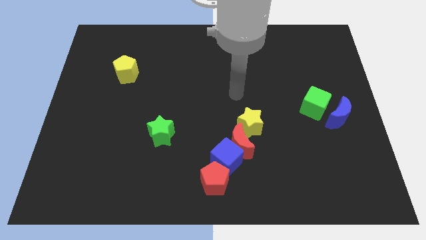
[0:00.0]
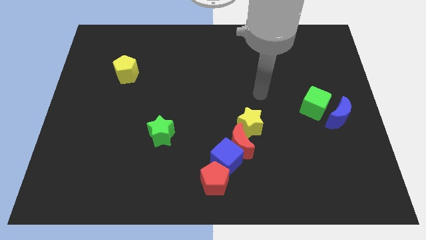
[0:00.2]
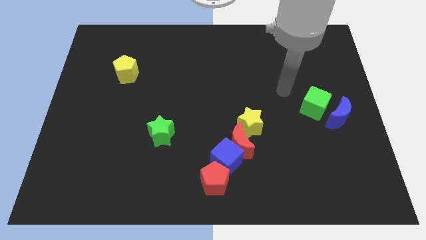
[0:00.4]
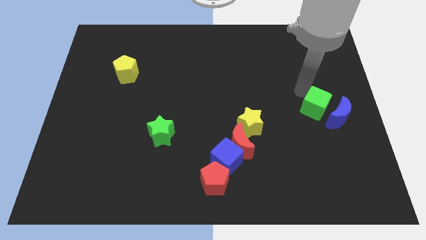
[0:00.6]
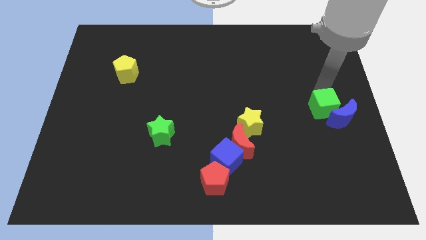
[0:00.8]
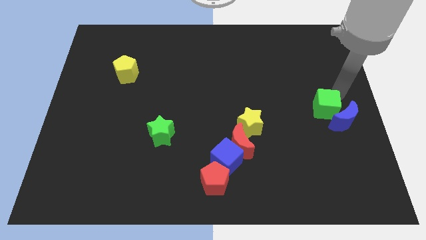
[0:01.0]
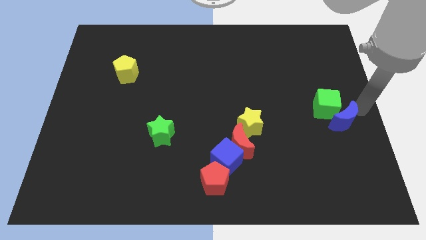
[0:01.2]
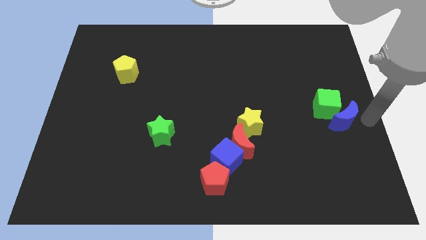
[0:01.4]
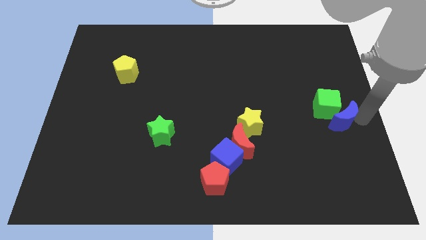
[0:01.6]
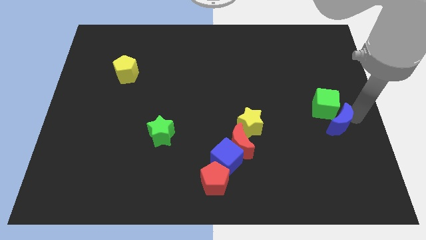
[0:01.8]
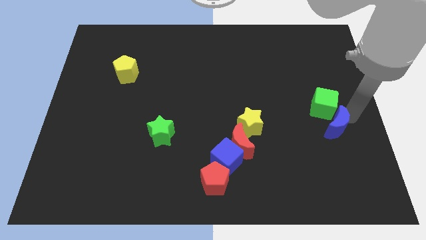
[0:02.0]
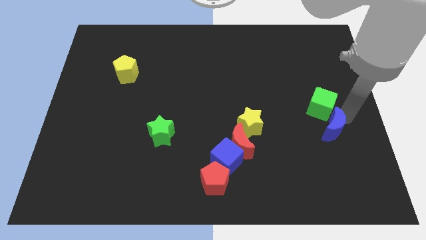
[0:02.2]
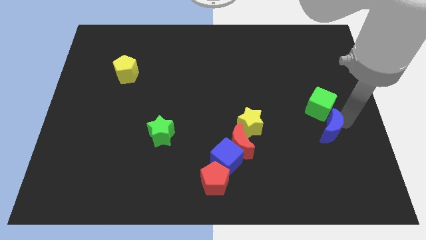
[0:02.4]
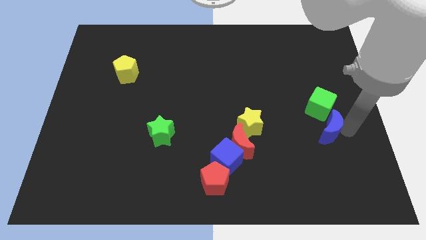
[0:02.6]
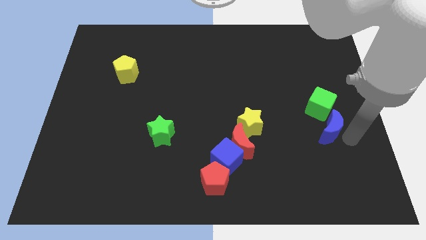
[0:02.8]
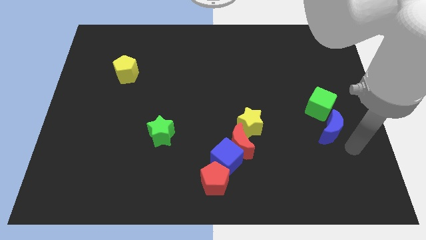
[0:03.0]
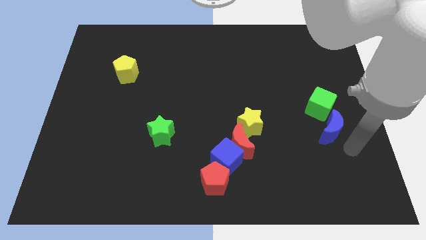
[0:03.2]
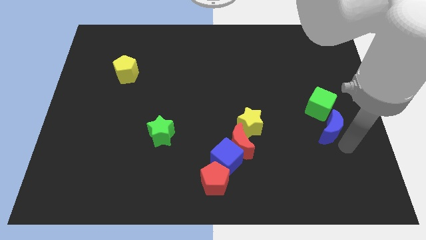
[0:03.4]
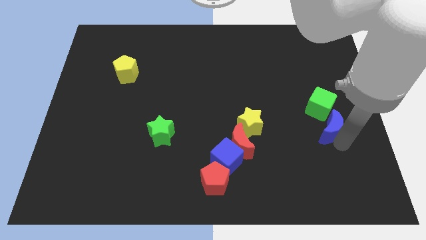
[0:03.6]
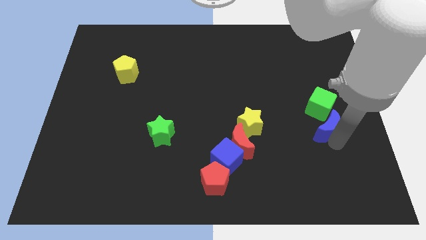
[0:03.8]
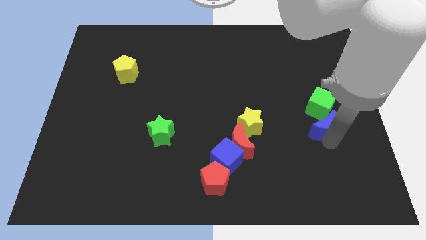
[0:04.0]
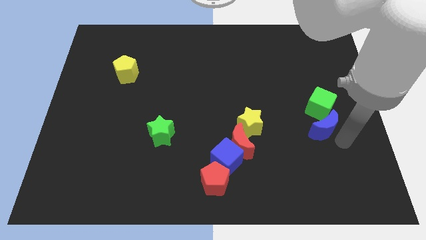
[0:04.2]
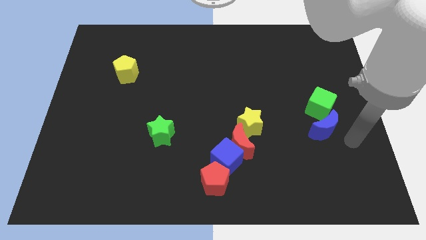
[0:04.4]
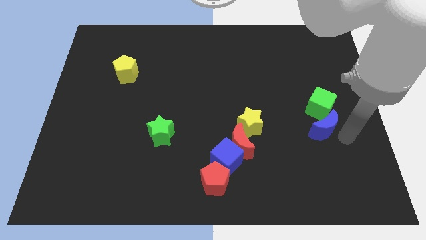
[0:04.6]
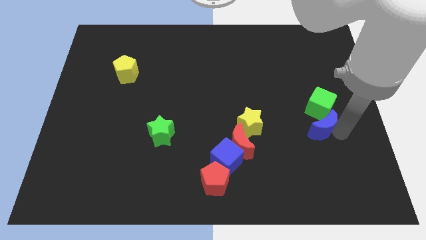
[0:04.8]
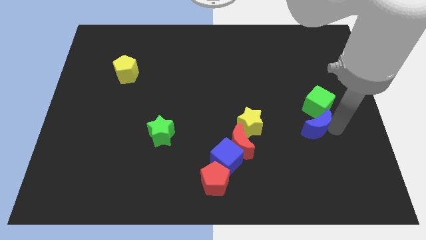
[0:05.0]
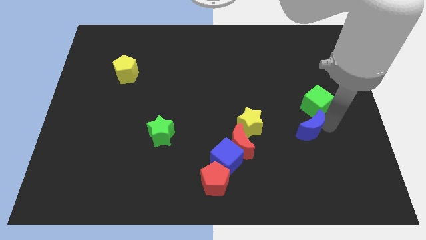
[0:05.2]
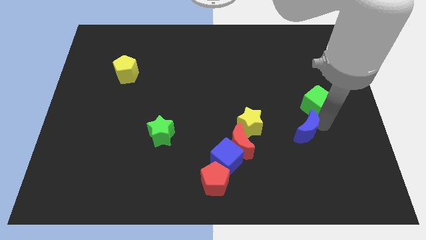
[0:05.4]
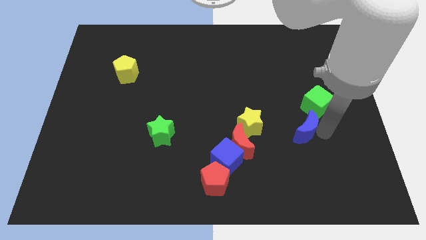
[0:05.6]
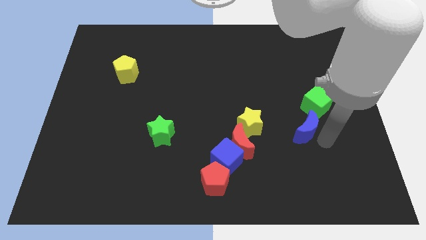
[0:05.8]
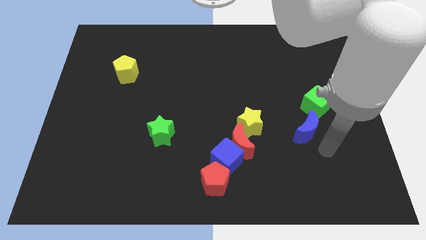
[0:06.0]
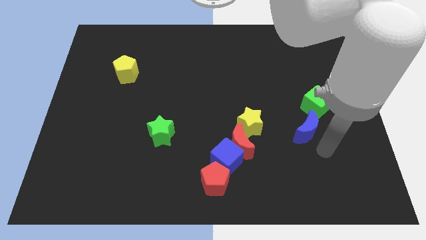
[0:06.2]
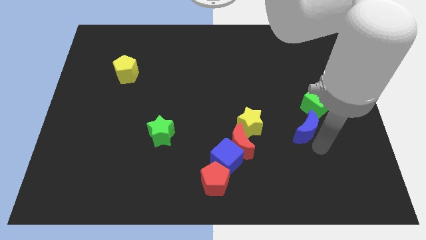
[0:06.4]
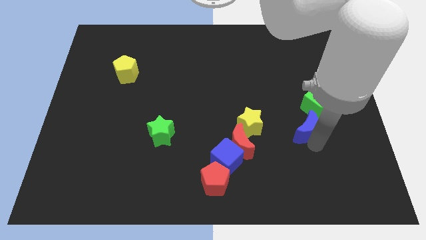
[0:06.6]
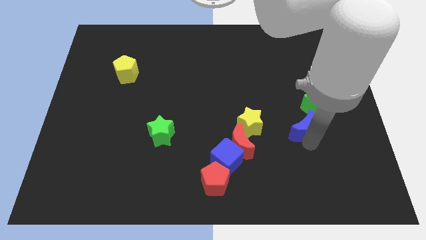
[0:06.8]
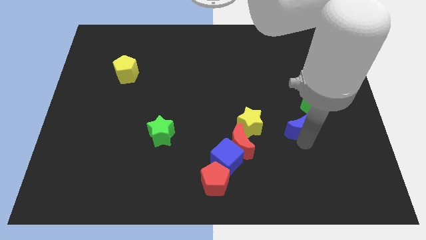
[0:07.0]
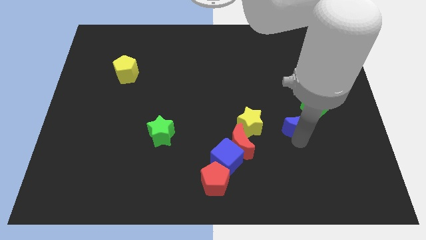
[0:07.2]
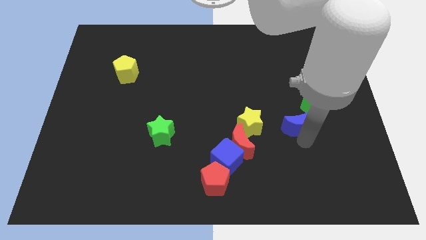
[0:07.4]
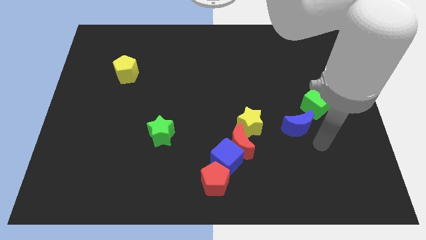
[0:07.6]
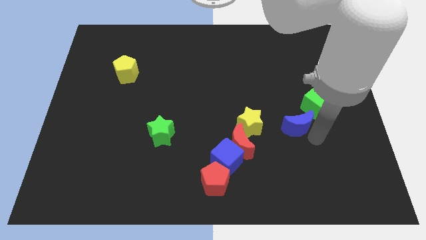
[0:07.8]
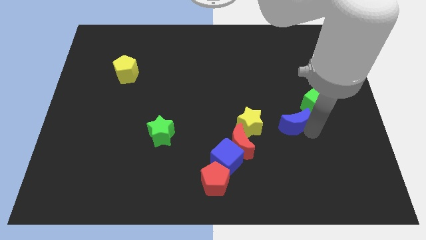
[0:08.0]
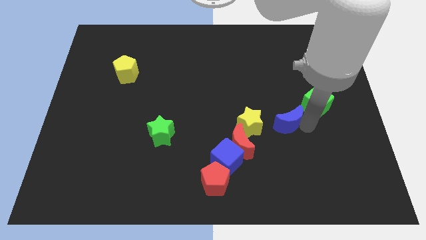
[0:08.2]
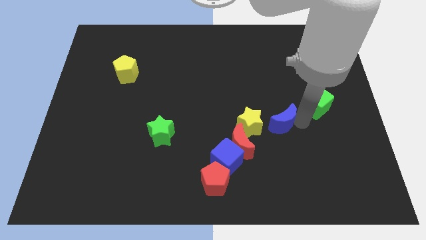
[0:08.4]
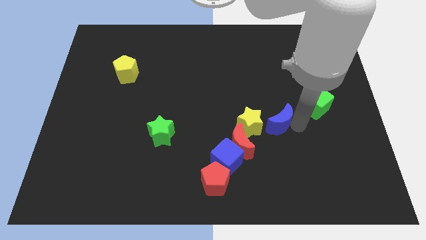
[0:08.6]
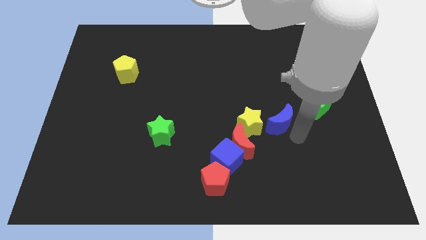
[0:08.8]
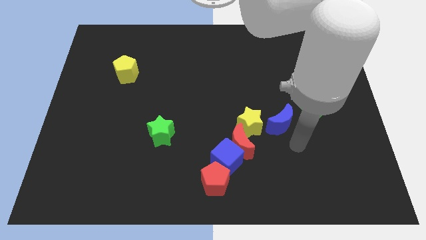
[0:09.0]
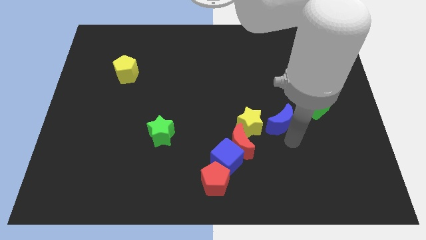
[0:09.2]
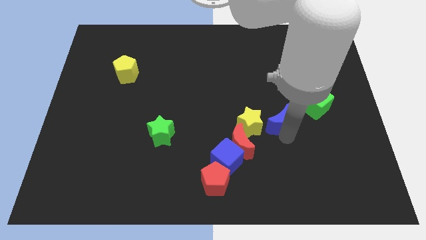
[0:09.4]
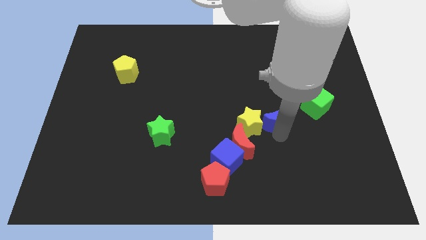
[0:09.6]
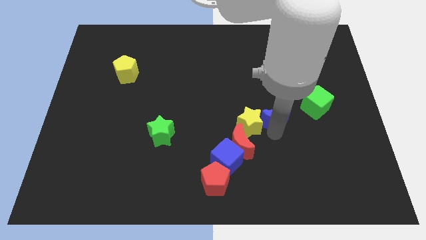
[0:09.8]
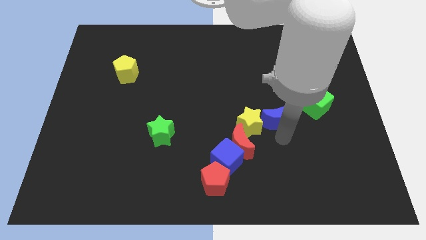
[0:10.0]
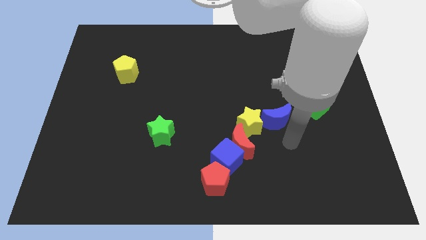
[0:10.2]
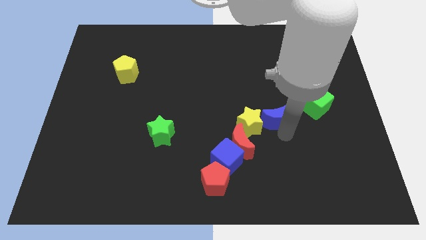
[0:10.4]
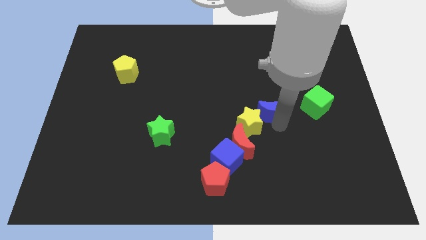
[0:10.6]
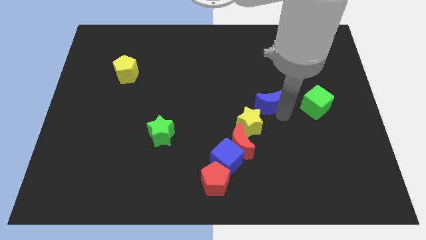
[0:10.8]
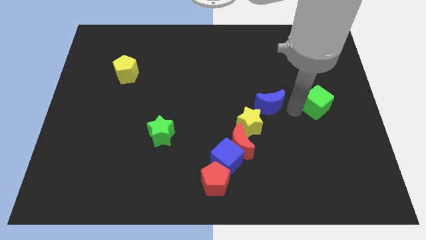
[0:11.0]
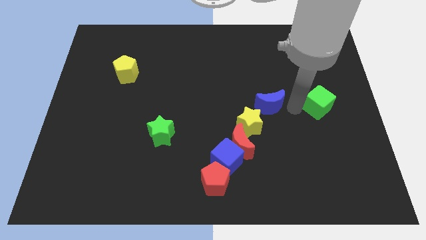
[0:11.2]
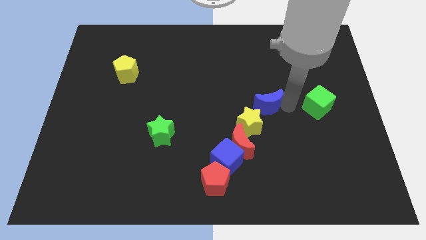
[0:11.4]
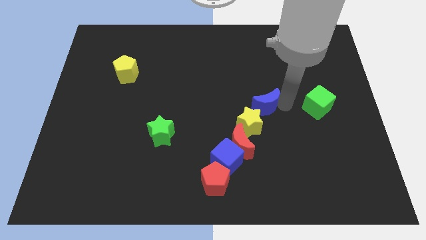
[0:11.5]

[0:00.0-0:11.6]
slide the blue moon to the center
